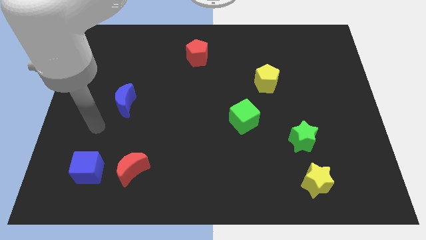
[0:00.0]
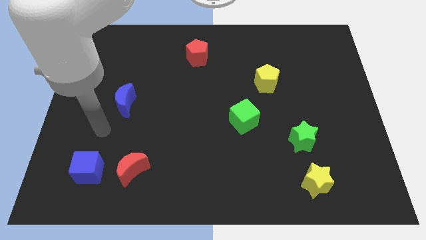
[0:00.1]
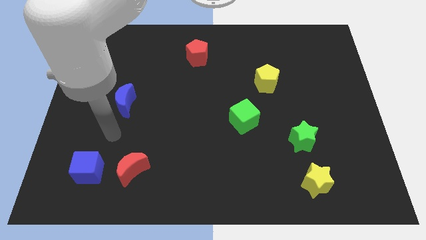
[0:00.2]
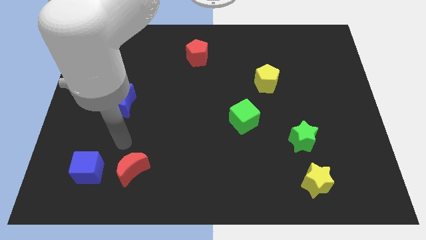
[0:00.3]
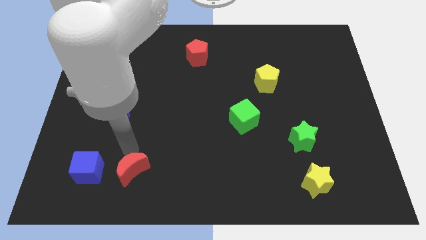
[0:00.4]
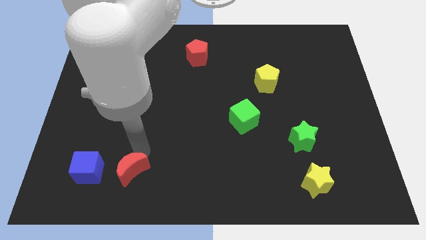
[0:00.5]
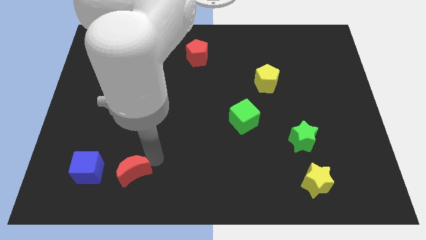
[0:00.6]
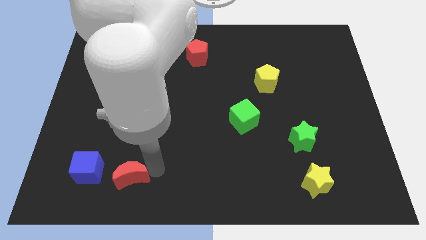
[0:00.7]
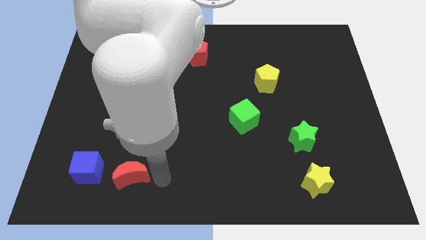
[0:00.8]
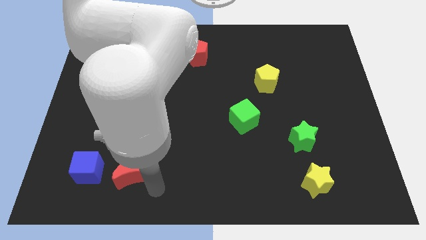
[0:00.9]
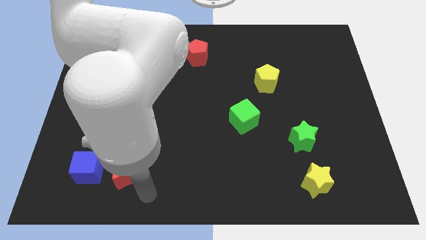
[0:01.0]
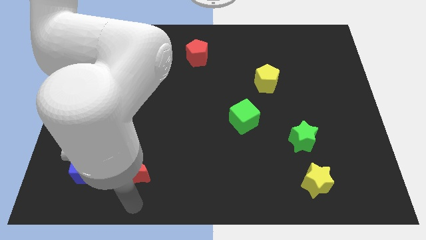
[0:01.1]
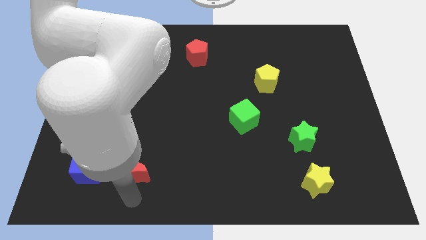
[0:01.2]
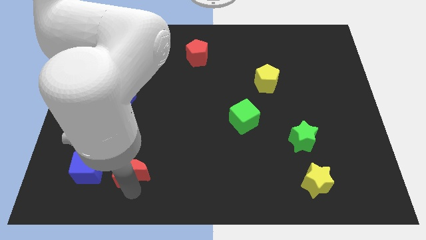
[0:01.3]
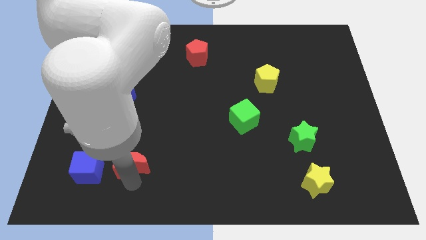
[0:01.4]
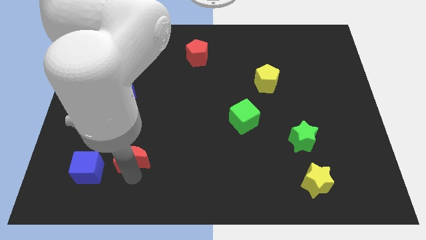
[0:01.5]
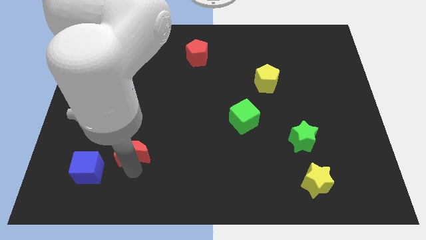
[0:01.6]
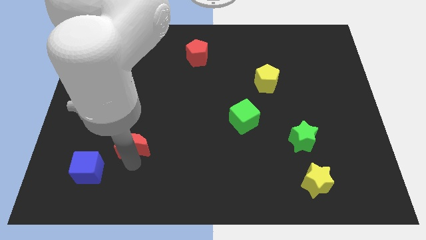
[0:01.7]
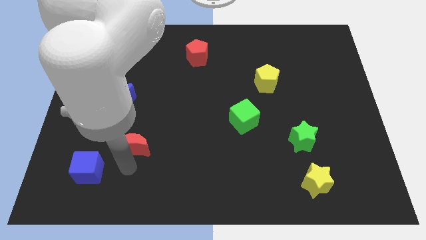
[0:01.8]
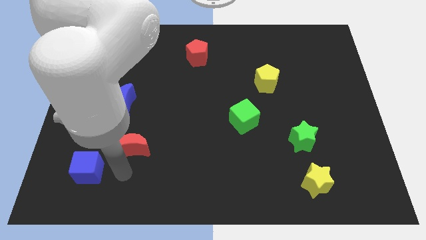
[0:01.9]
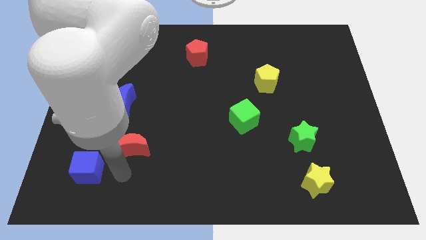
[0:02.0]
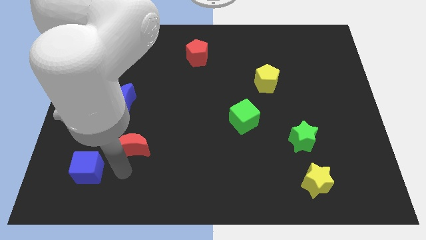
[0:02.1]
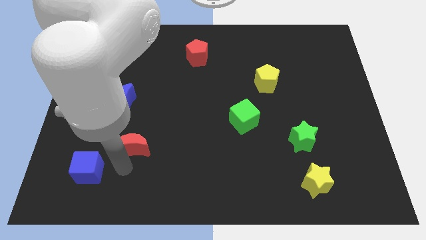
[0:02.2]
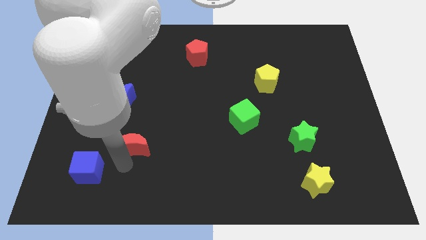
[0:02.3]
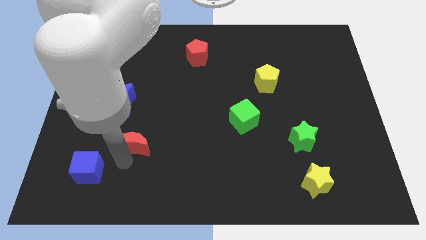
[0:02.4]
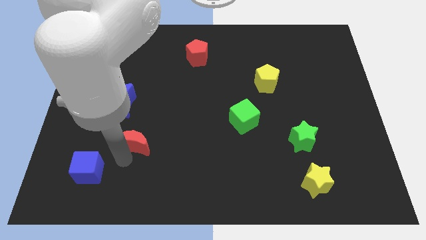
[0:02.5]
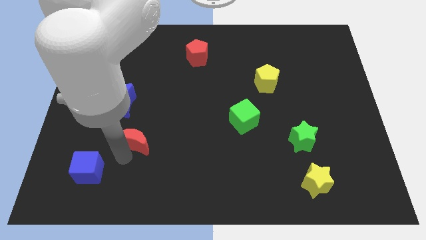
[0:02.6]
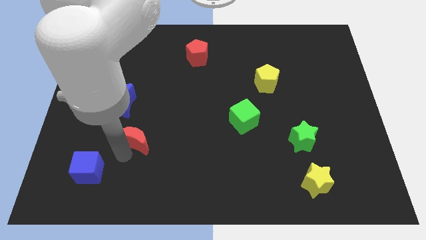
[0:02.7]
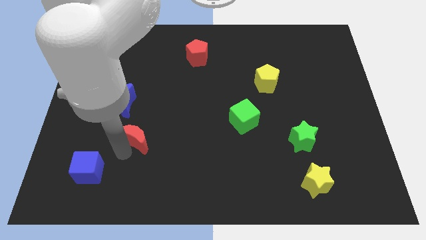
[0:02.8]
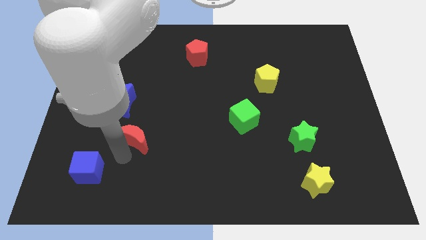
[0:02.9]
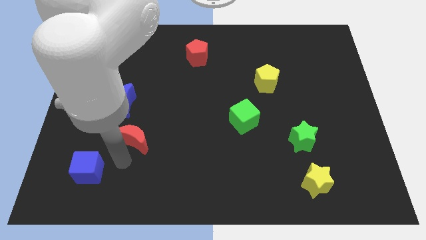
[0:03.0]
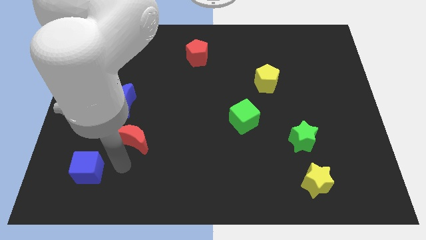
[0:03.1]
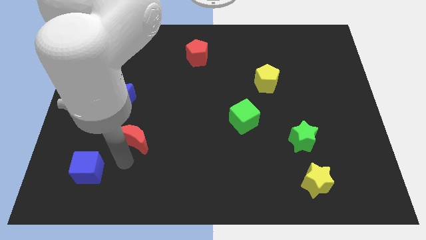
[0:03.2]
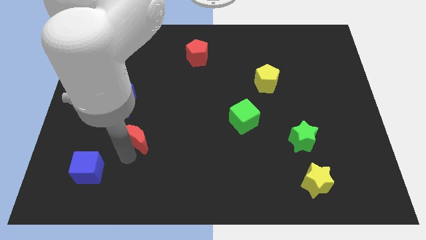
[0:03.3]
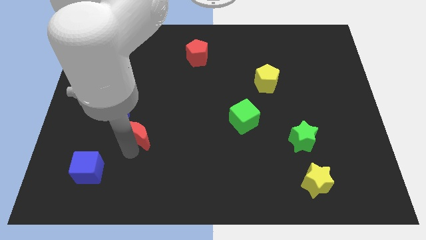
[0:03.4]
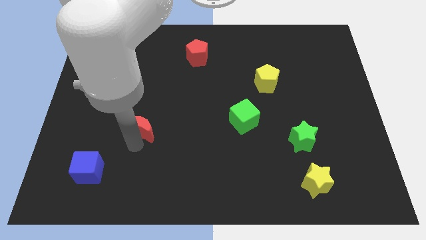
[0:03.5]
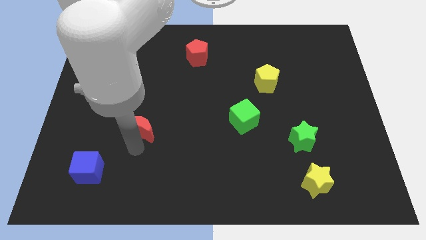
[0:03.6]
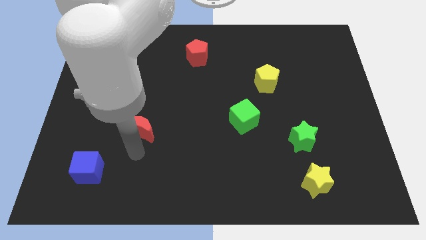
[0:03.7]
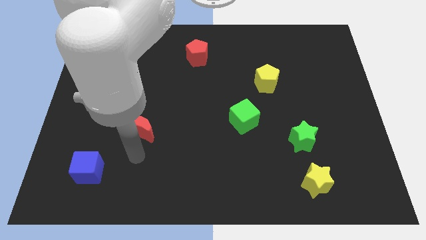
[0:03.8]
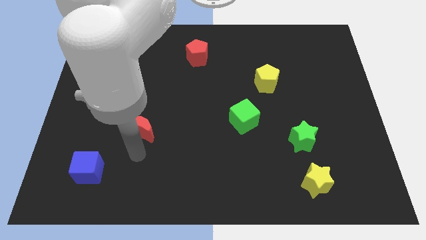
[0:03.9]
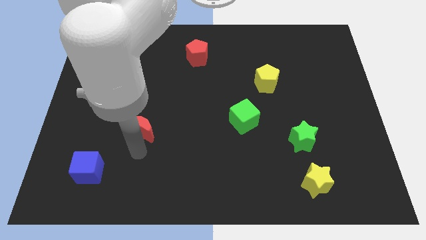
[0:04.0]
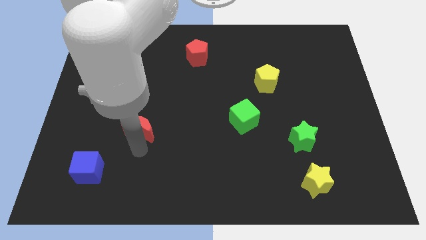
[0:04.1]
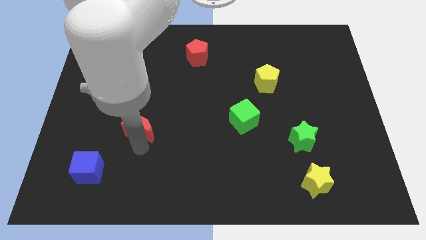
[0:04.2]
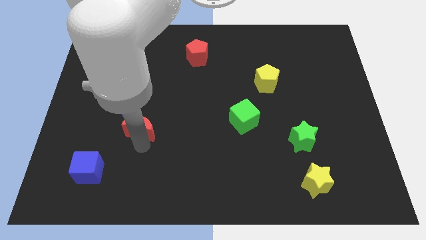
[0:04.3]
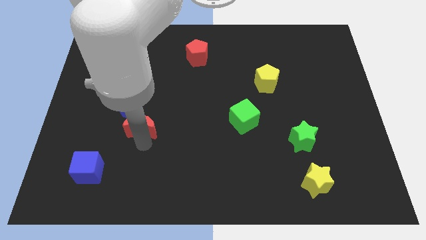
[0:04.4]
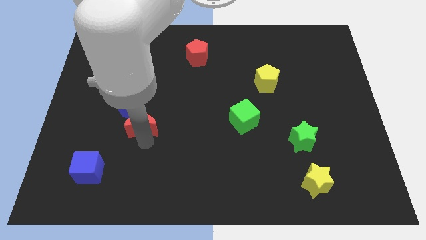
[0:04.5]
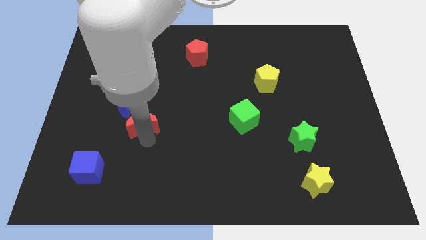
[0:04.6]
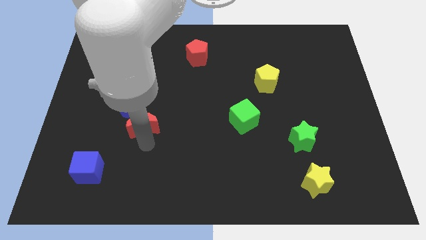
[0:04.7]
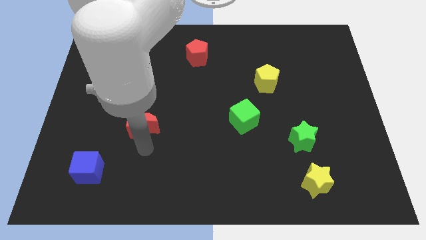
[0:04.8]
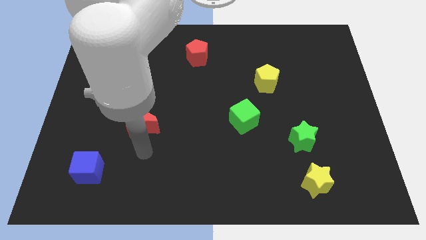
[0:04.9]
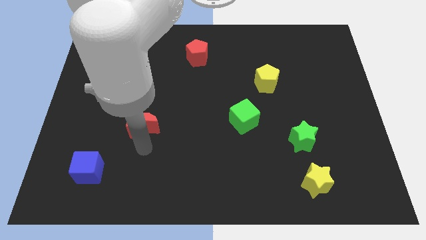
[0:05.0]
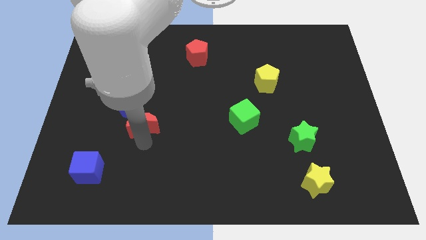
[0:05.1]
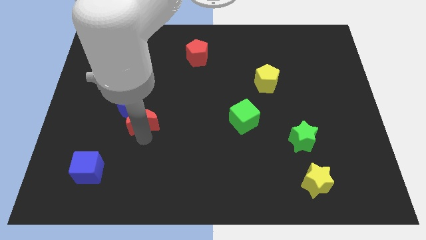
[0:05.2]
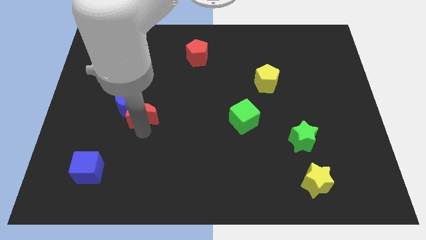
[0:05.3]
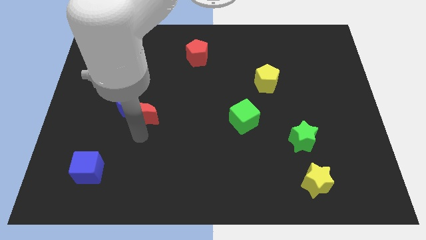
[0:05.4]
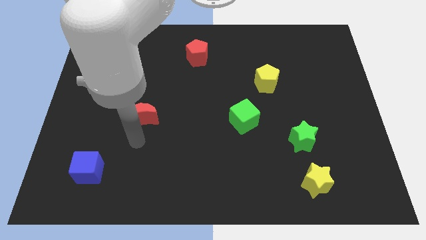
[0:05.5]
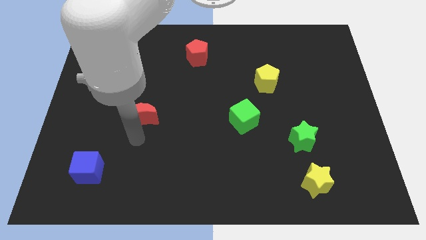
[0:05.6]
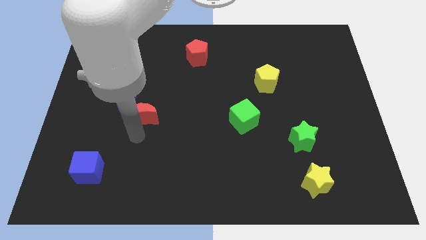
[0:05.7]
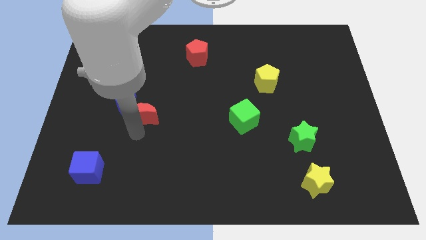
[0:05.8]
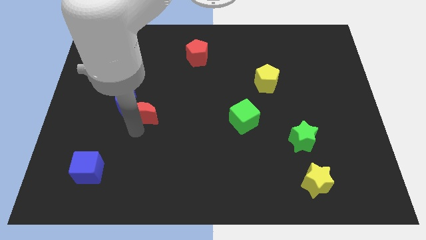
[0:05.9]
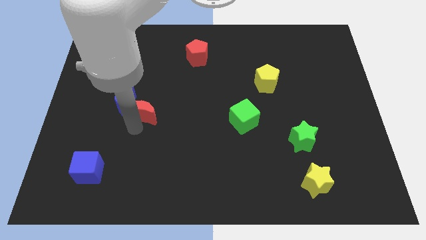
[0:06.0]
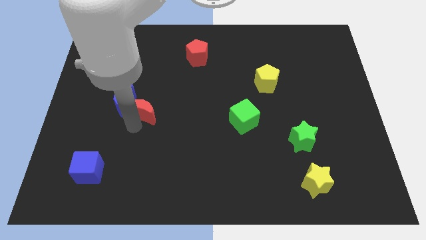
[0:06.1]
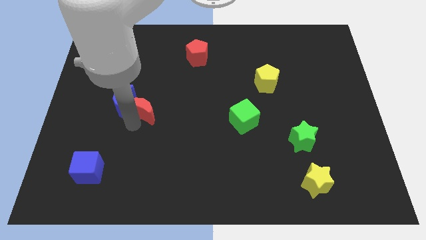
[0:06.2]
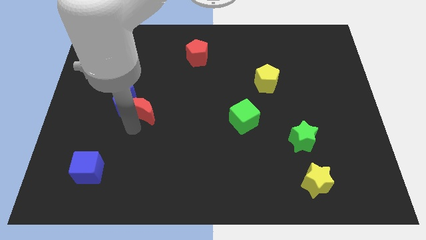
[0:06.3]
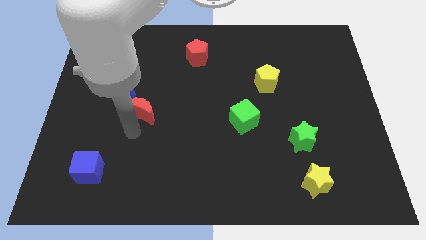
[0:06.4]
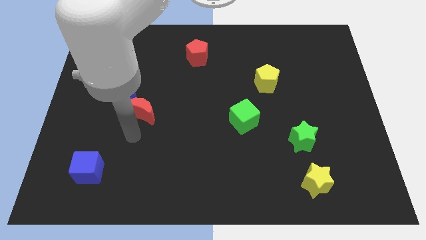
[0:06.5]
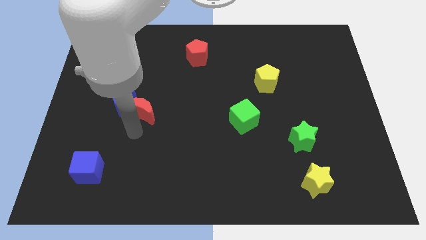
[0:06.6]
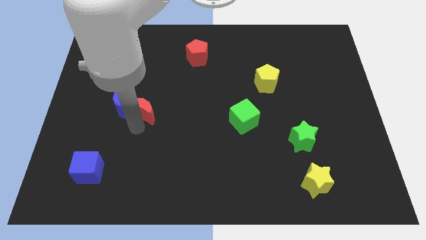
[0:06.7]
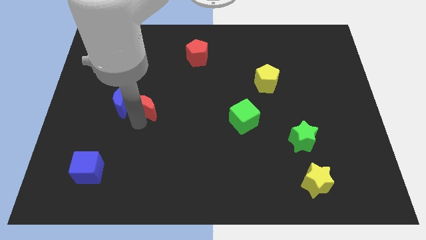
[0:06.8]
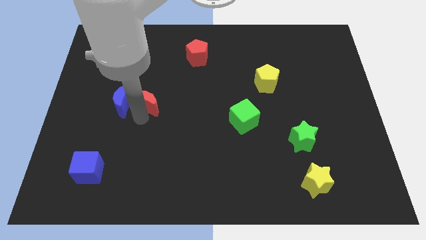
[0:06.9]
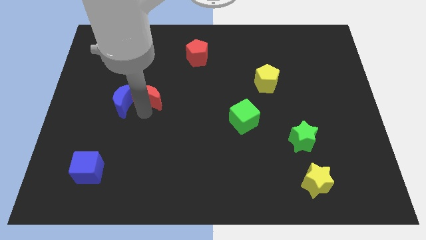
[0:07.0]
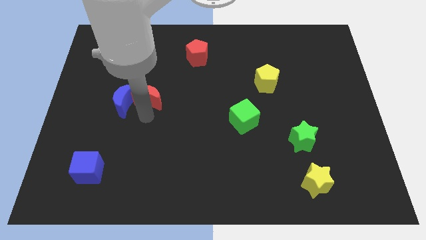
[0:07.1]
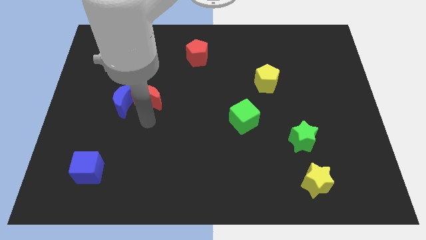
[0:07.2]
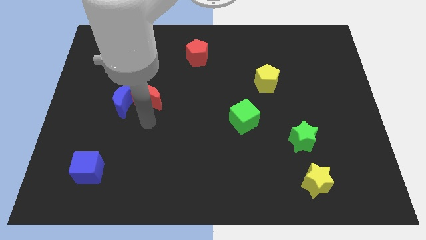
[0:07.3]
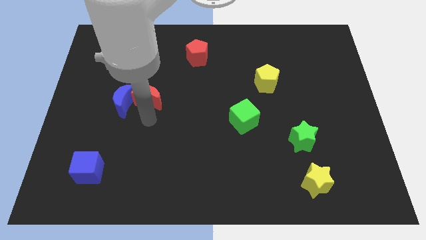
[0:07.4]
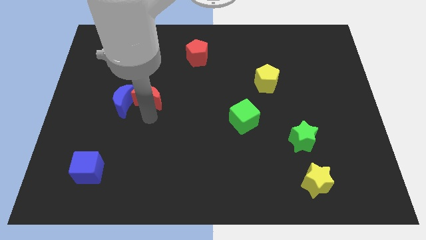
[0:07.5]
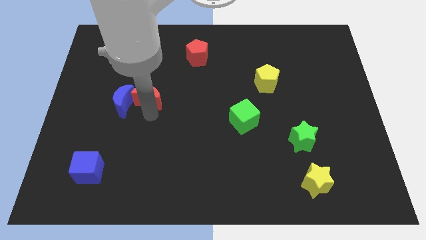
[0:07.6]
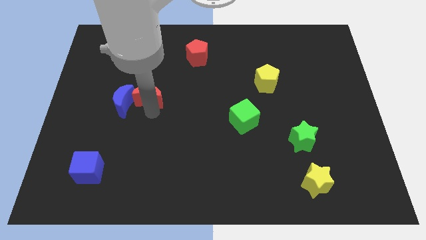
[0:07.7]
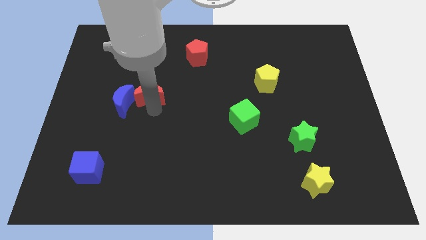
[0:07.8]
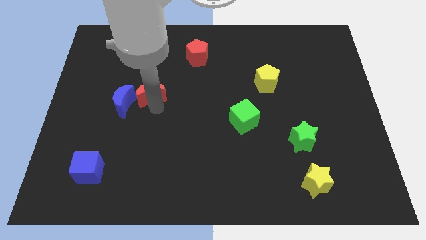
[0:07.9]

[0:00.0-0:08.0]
slide the red moon upwards
